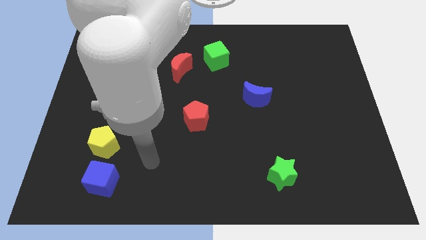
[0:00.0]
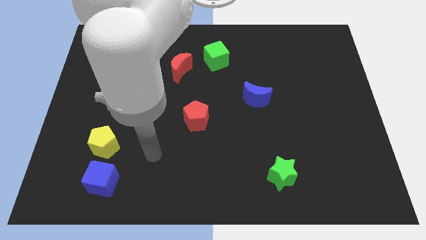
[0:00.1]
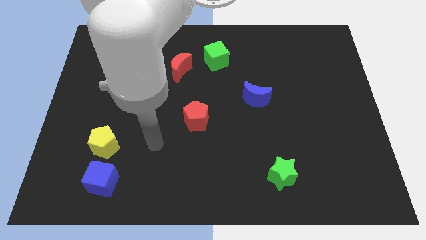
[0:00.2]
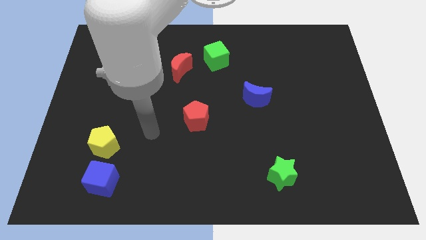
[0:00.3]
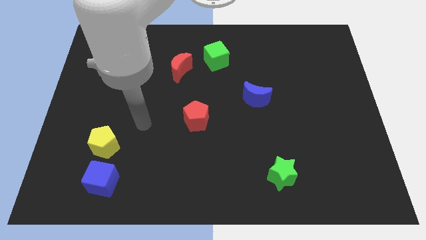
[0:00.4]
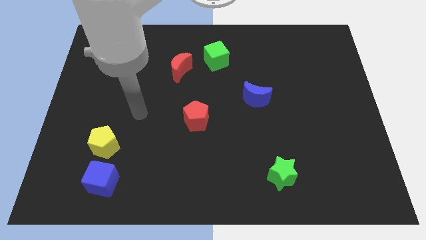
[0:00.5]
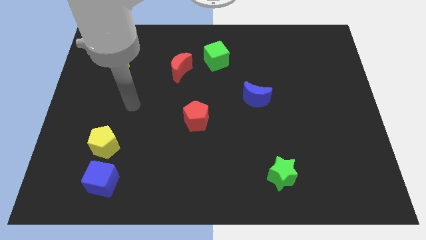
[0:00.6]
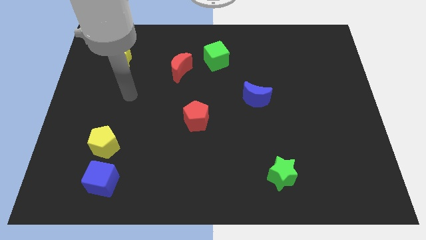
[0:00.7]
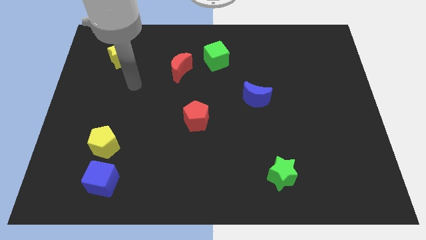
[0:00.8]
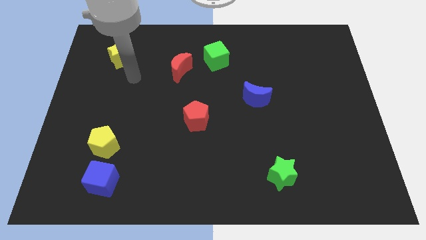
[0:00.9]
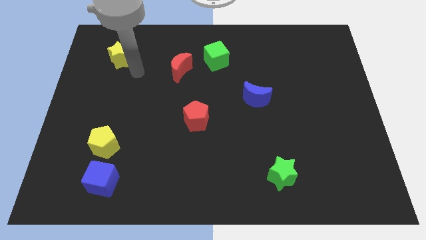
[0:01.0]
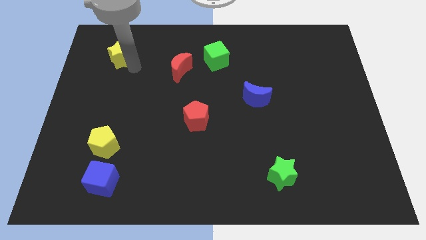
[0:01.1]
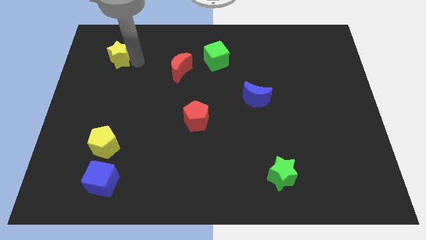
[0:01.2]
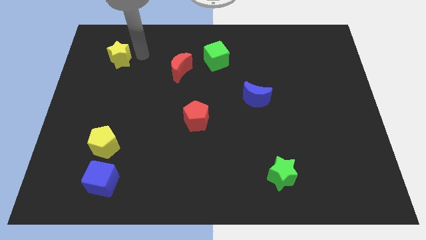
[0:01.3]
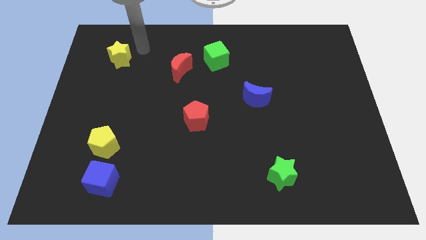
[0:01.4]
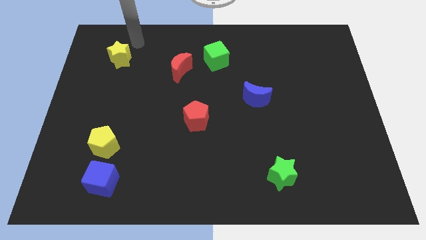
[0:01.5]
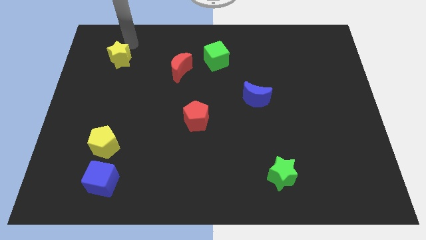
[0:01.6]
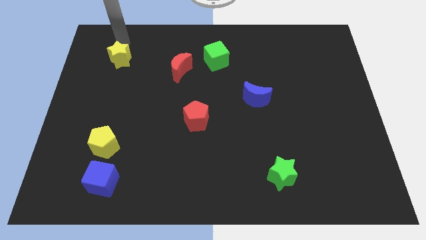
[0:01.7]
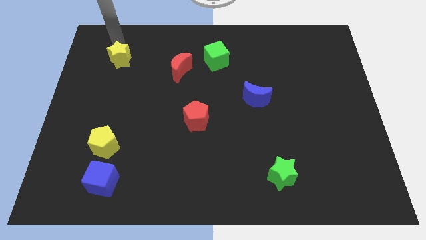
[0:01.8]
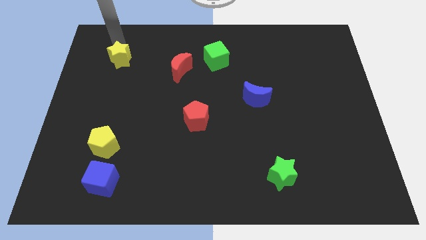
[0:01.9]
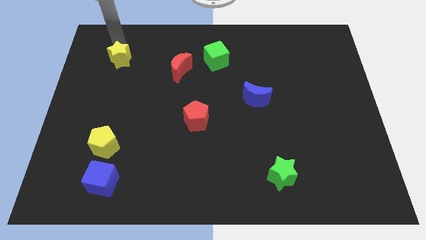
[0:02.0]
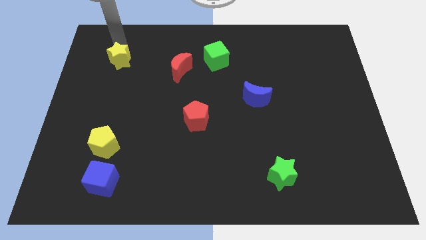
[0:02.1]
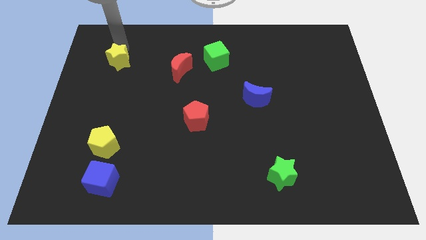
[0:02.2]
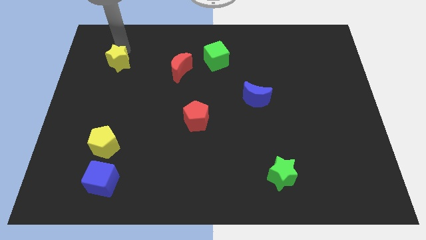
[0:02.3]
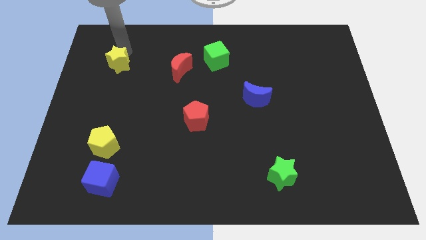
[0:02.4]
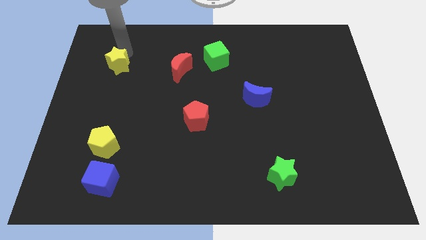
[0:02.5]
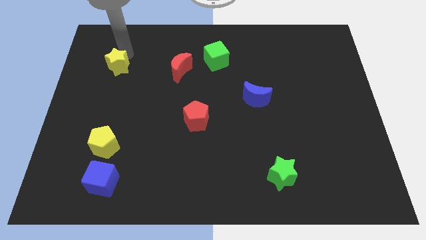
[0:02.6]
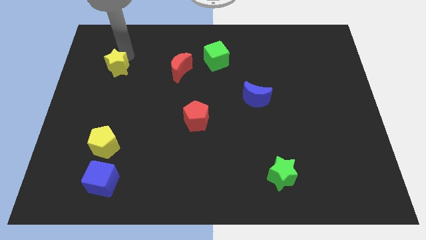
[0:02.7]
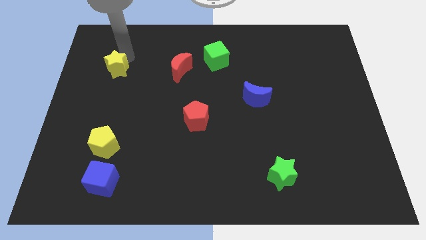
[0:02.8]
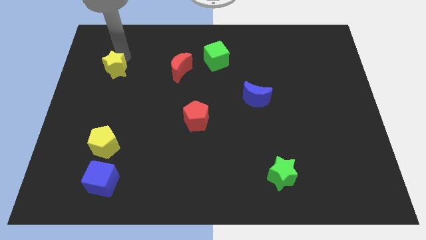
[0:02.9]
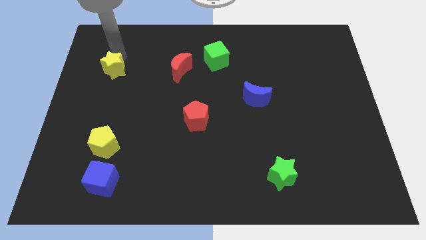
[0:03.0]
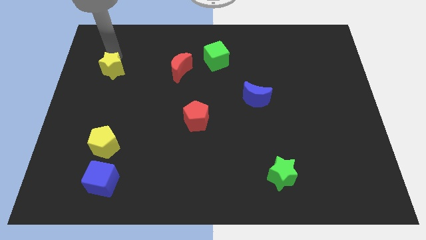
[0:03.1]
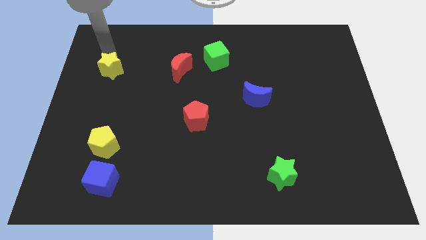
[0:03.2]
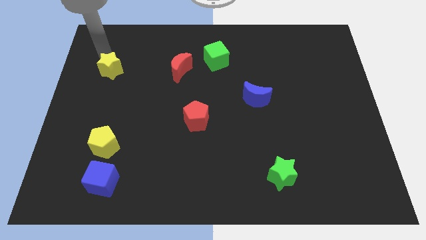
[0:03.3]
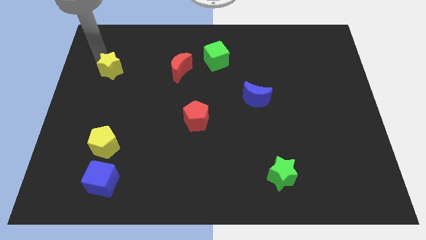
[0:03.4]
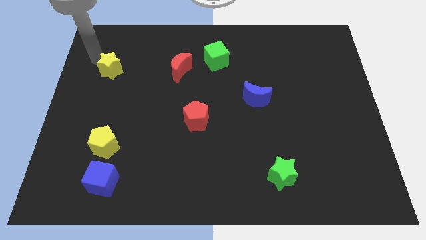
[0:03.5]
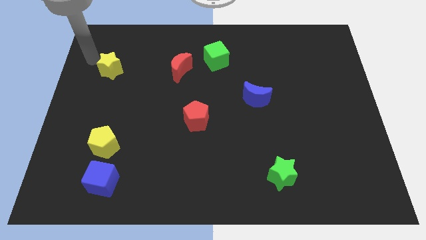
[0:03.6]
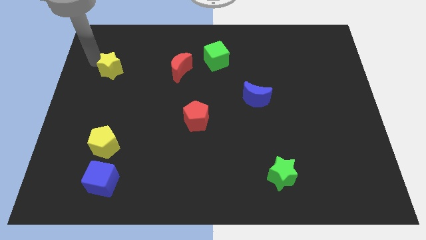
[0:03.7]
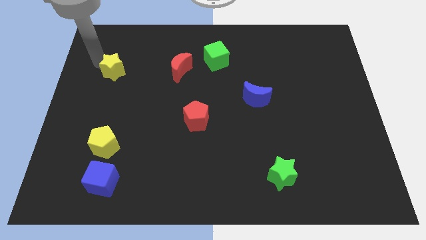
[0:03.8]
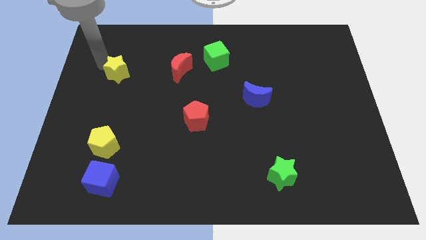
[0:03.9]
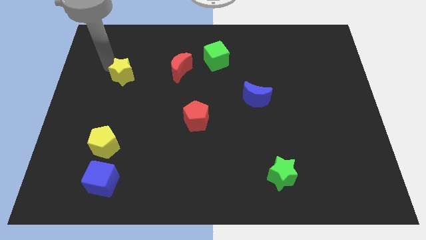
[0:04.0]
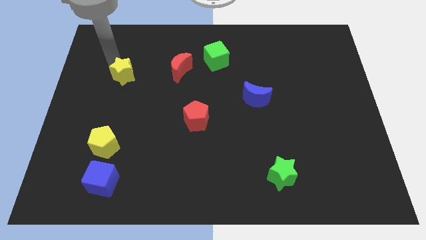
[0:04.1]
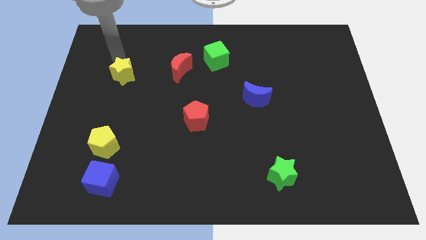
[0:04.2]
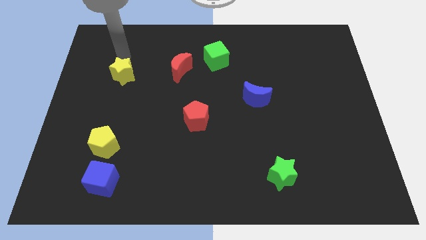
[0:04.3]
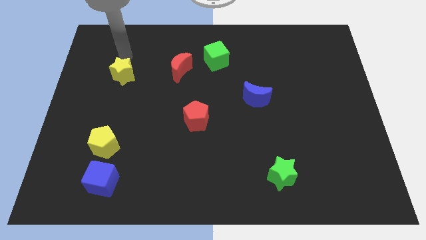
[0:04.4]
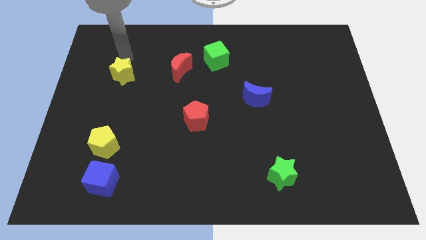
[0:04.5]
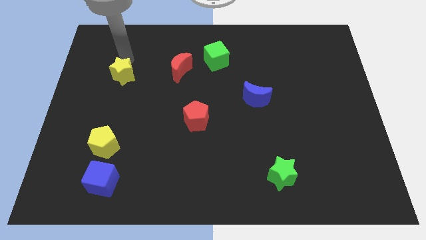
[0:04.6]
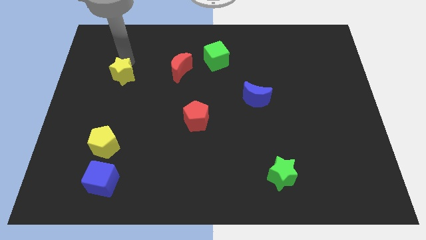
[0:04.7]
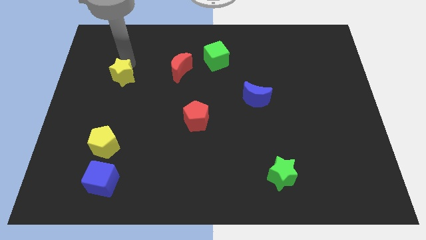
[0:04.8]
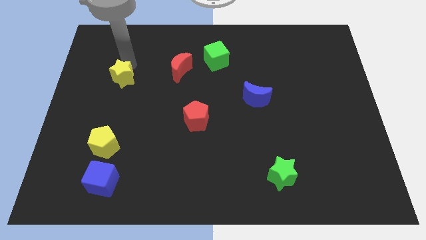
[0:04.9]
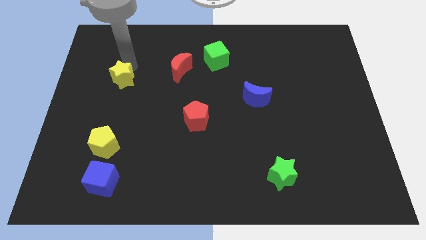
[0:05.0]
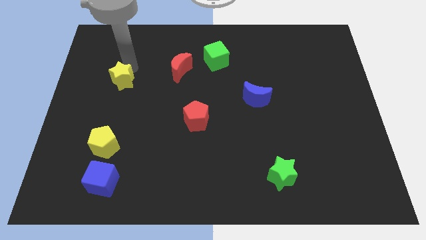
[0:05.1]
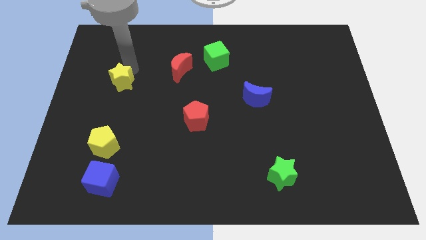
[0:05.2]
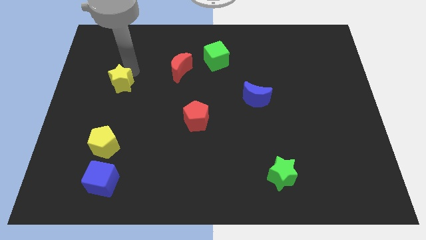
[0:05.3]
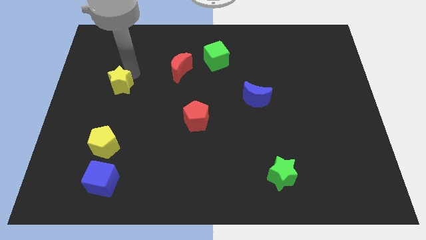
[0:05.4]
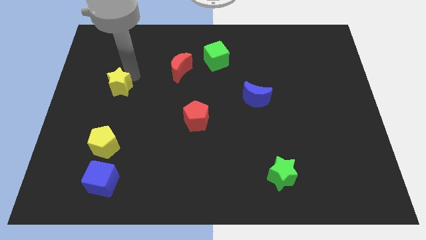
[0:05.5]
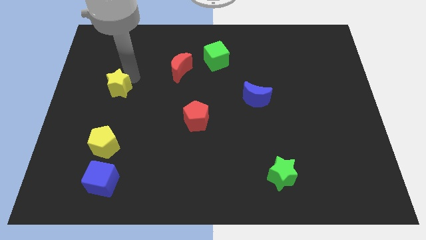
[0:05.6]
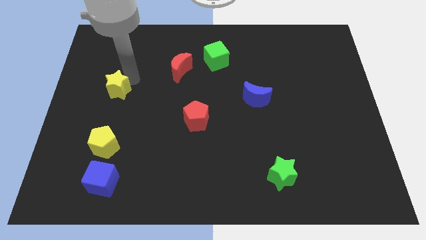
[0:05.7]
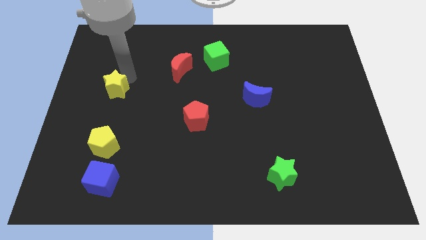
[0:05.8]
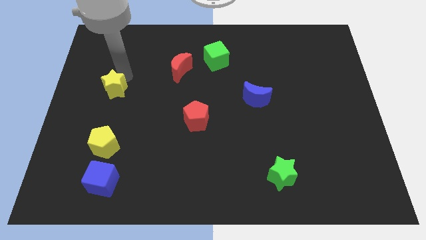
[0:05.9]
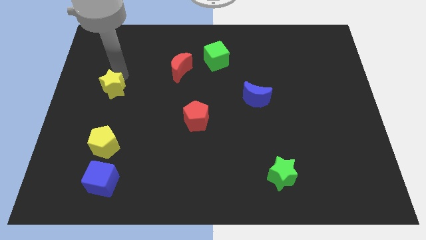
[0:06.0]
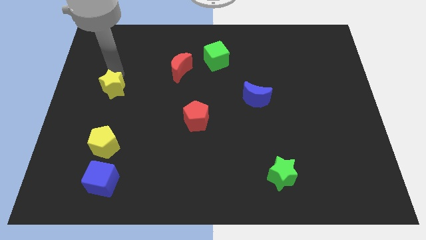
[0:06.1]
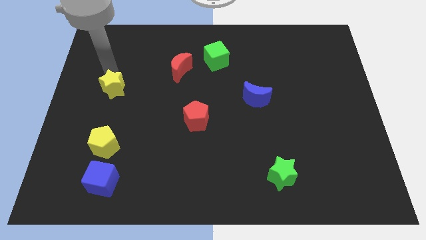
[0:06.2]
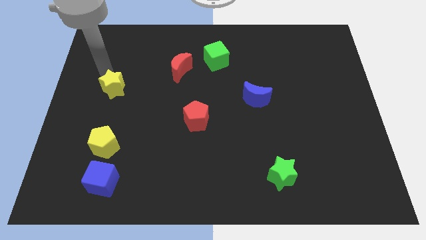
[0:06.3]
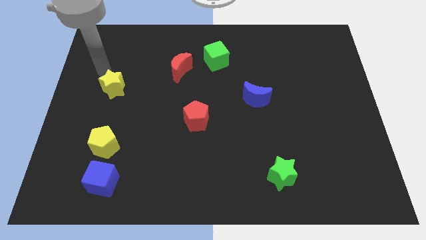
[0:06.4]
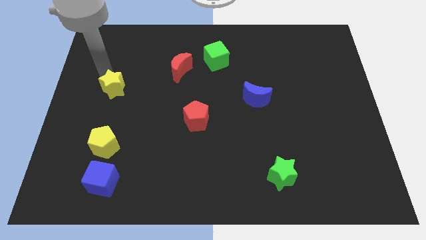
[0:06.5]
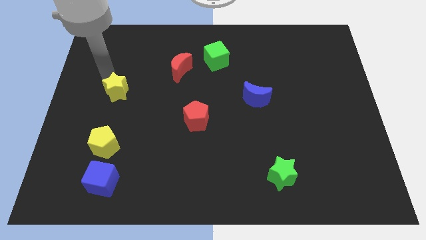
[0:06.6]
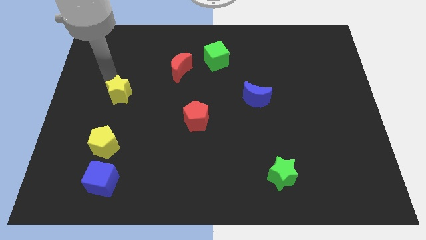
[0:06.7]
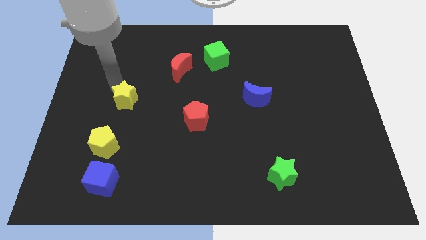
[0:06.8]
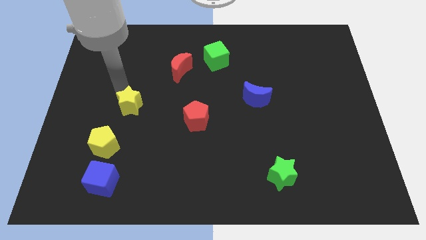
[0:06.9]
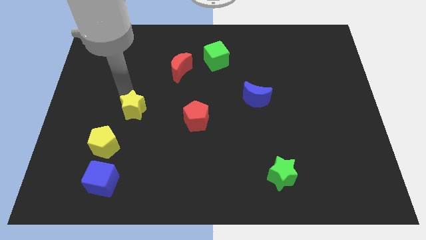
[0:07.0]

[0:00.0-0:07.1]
slide the yellow star to the top right of the yellow pentagon
